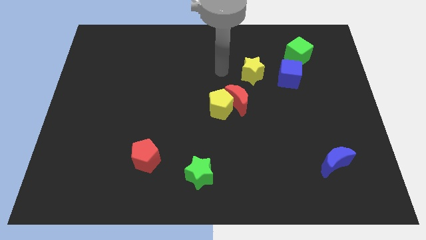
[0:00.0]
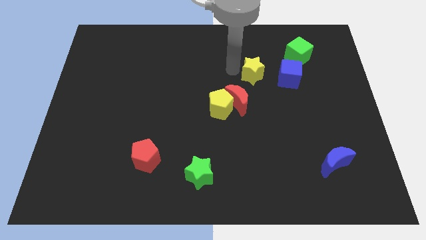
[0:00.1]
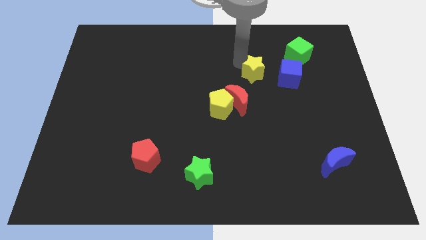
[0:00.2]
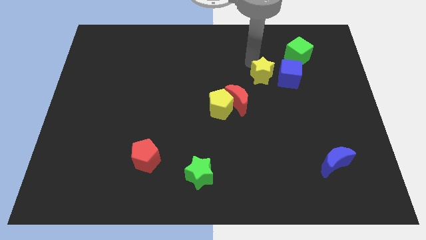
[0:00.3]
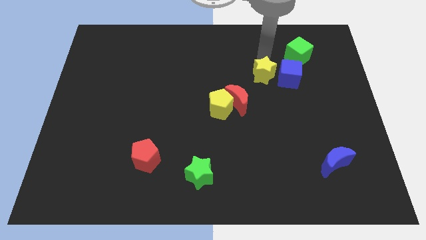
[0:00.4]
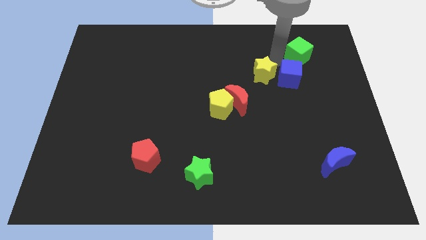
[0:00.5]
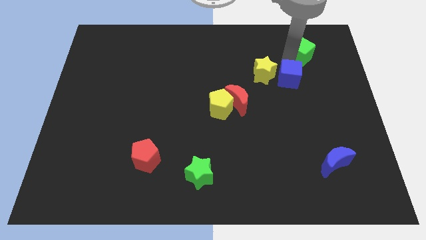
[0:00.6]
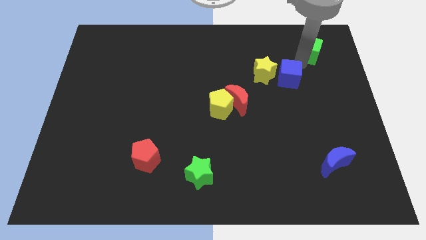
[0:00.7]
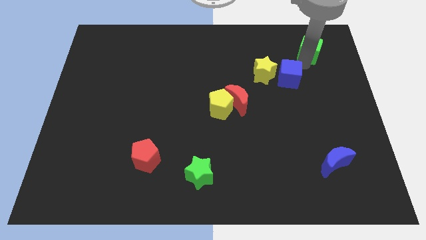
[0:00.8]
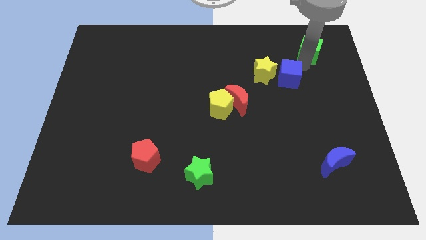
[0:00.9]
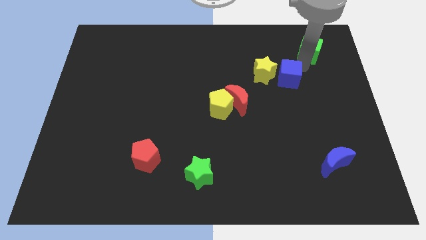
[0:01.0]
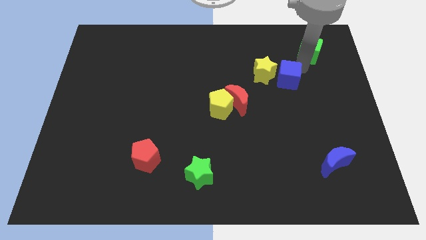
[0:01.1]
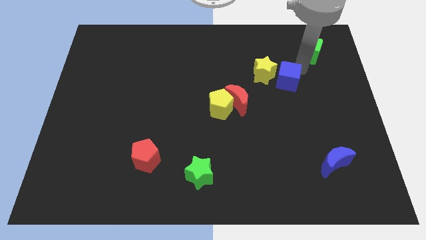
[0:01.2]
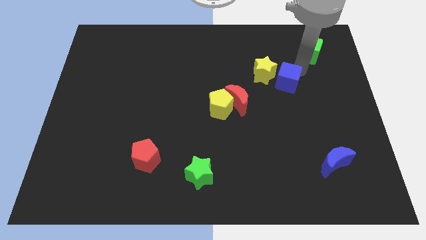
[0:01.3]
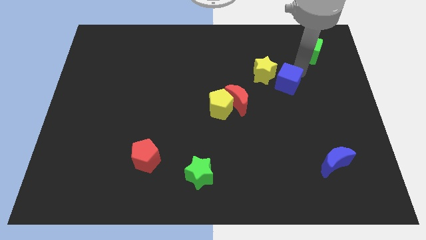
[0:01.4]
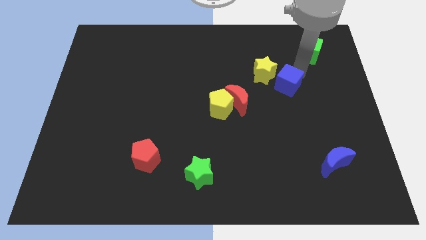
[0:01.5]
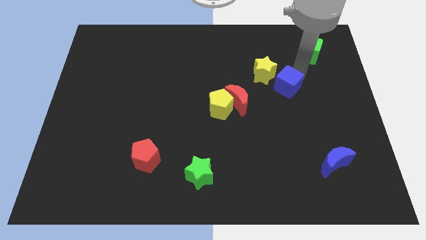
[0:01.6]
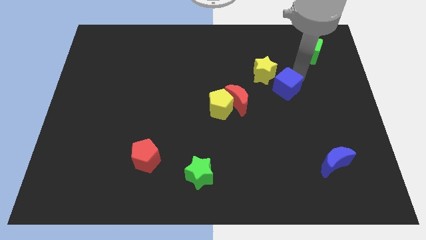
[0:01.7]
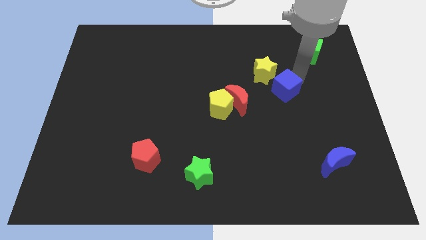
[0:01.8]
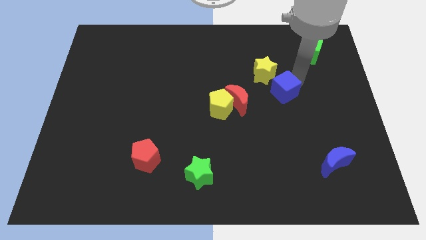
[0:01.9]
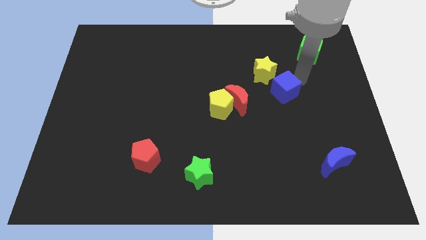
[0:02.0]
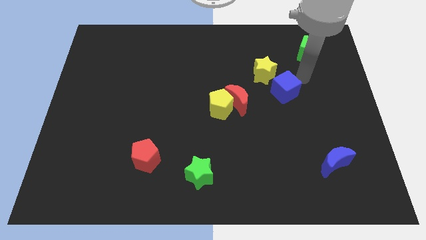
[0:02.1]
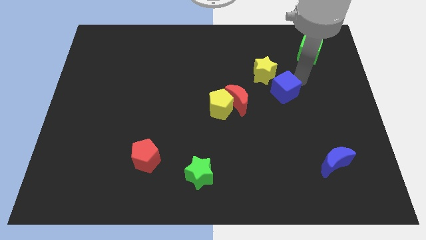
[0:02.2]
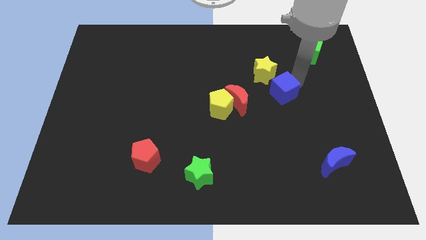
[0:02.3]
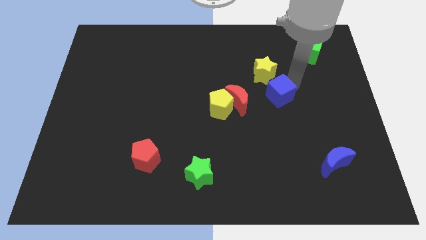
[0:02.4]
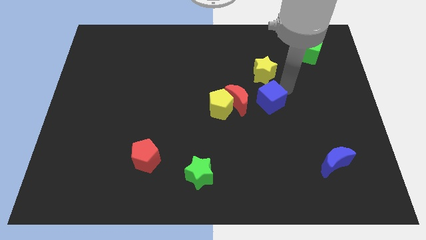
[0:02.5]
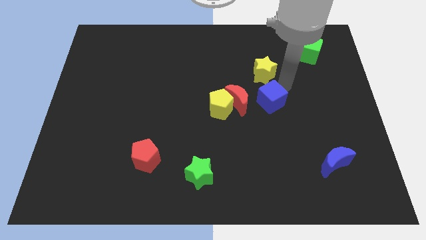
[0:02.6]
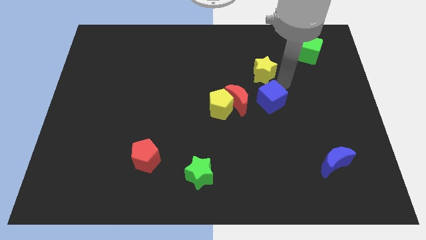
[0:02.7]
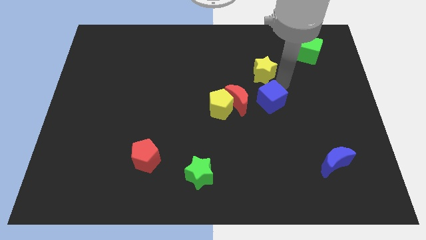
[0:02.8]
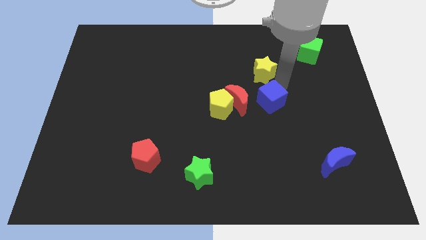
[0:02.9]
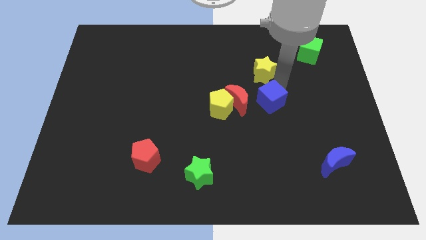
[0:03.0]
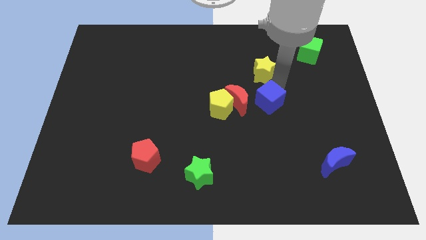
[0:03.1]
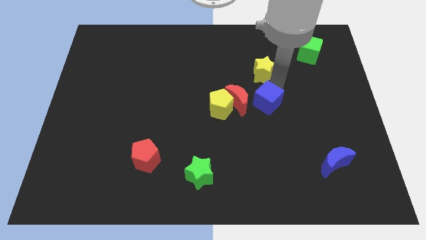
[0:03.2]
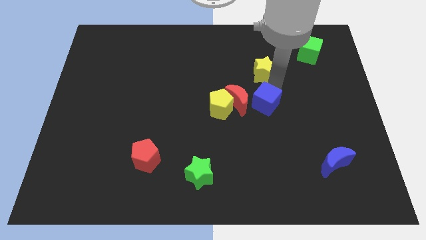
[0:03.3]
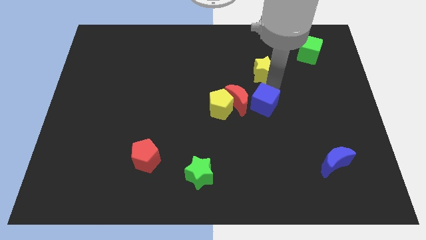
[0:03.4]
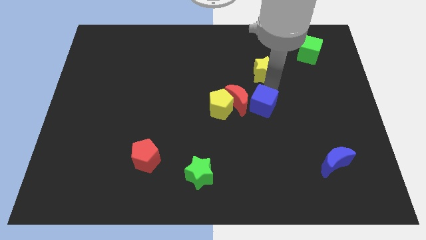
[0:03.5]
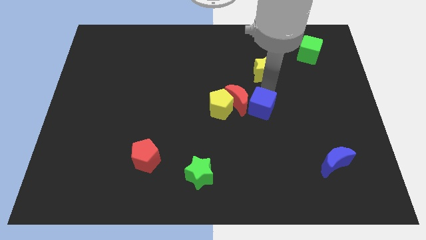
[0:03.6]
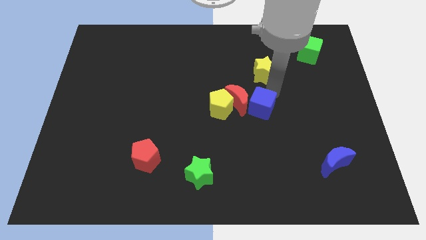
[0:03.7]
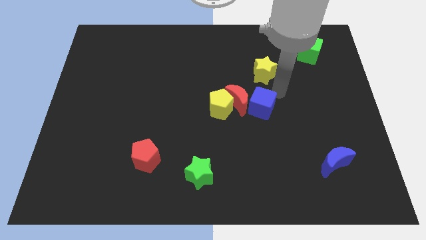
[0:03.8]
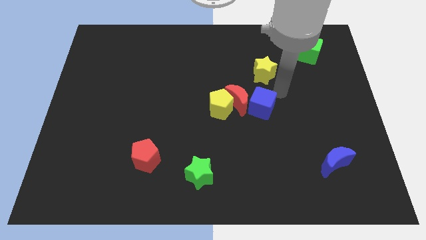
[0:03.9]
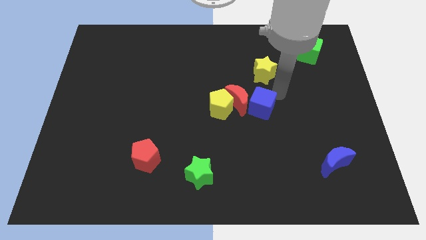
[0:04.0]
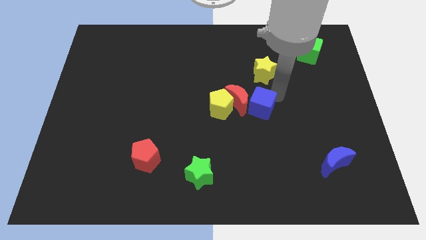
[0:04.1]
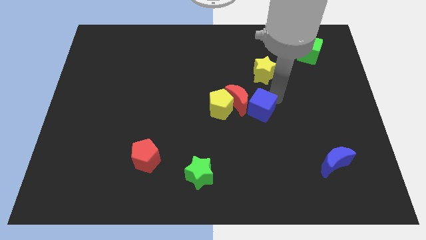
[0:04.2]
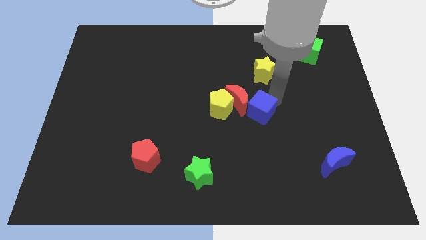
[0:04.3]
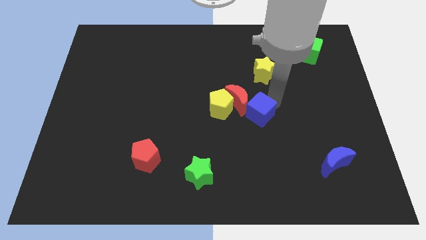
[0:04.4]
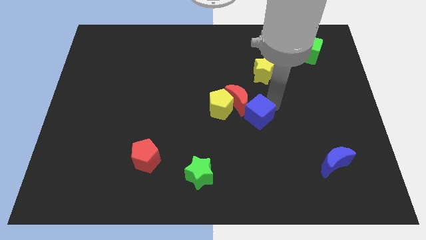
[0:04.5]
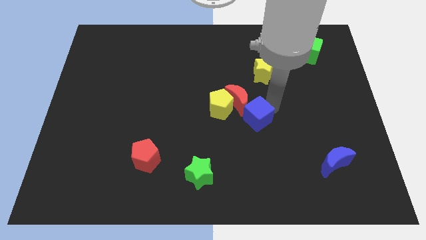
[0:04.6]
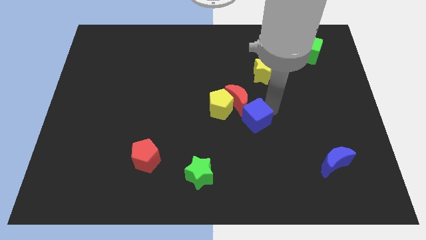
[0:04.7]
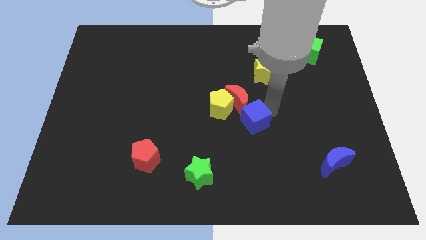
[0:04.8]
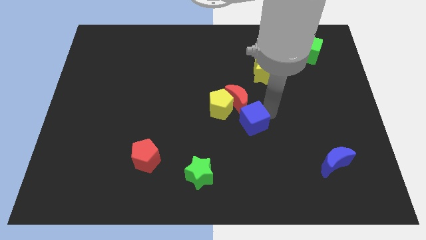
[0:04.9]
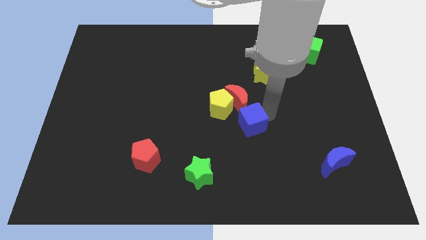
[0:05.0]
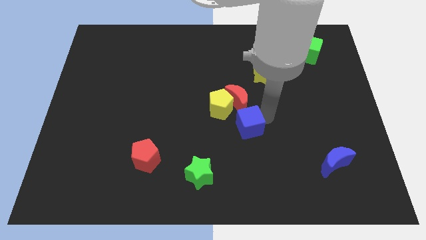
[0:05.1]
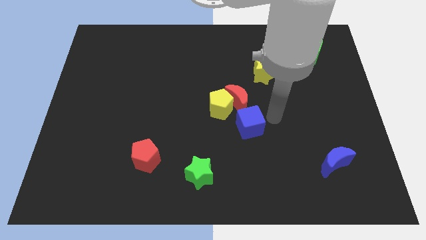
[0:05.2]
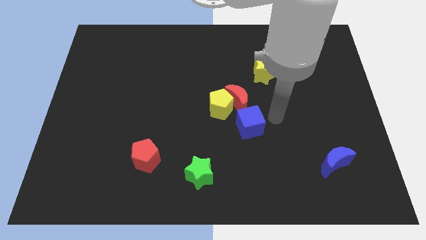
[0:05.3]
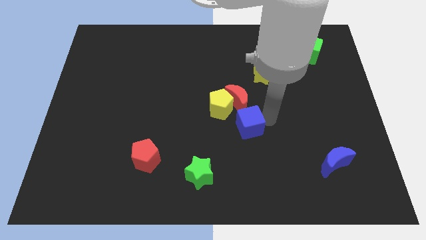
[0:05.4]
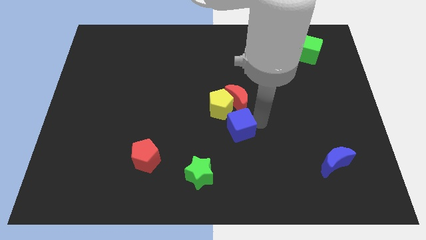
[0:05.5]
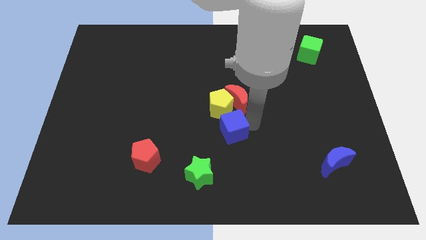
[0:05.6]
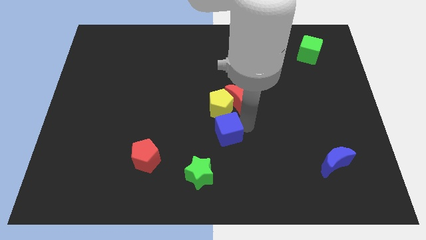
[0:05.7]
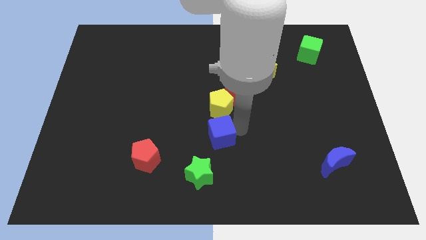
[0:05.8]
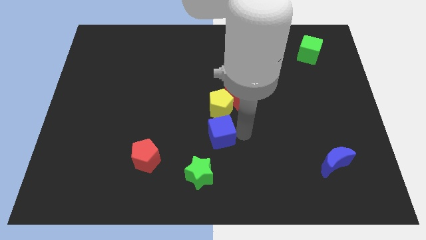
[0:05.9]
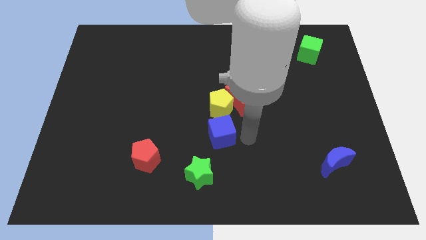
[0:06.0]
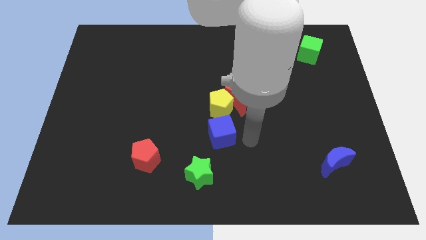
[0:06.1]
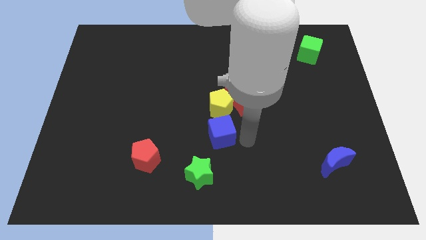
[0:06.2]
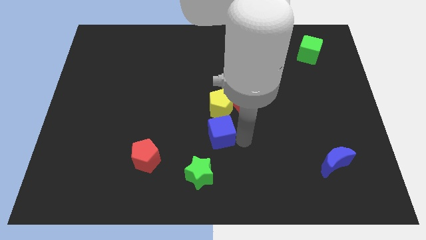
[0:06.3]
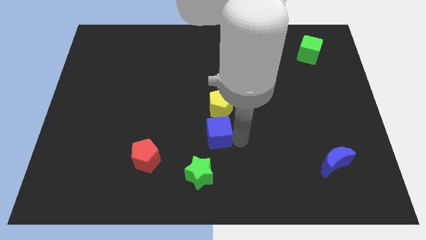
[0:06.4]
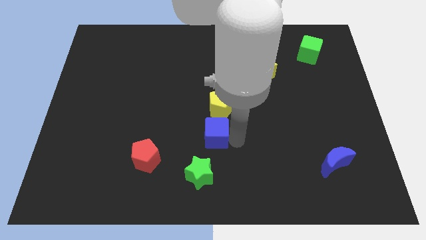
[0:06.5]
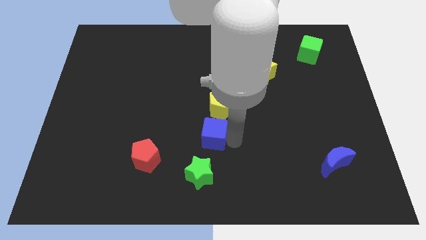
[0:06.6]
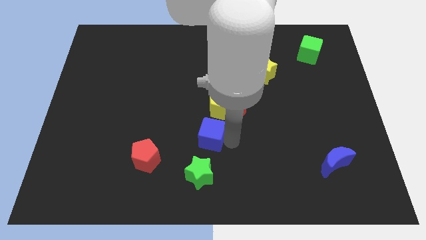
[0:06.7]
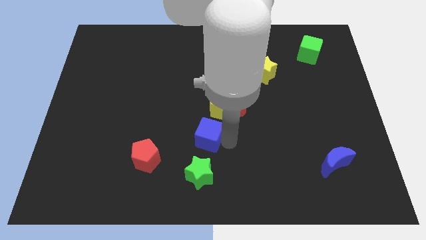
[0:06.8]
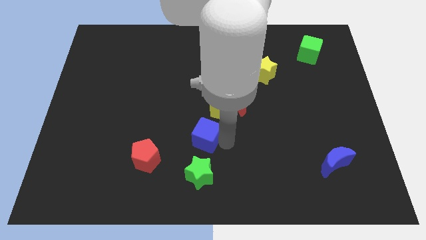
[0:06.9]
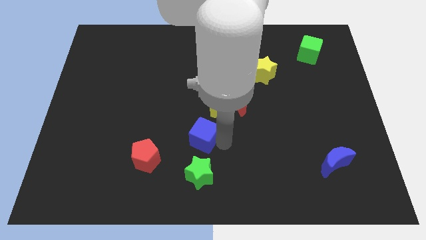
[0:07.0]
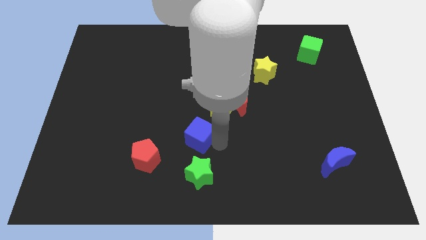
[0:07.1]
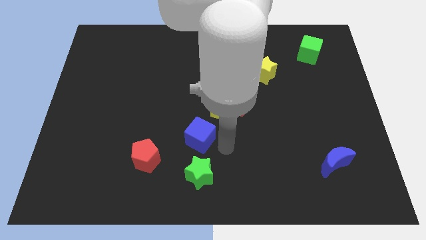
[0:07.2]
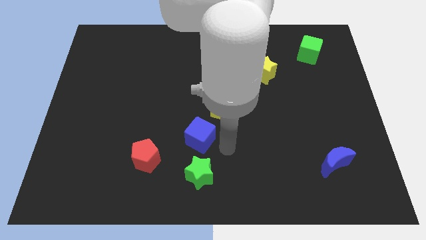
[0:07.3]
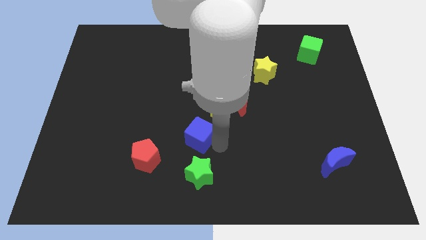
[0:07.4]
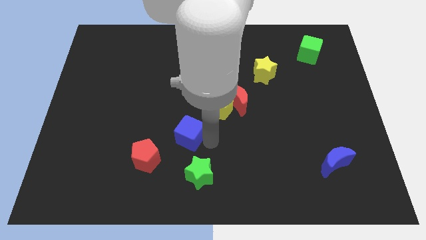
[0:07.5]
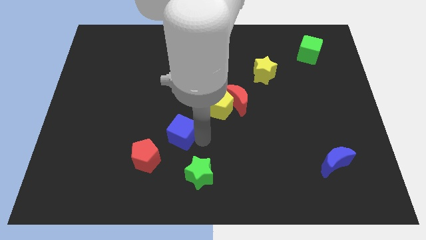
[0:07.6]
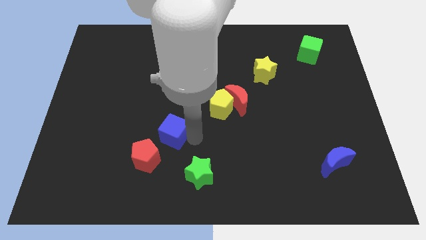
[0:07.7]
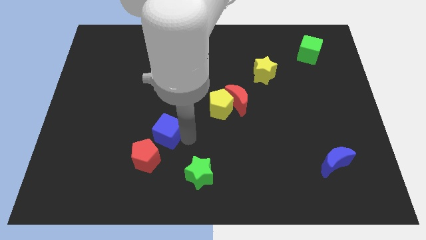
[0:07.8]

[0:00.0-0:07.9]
put the blue cube above the red pentagon

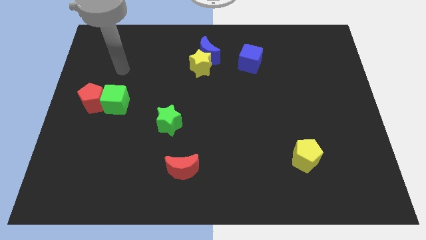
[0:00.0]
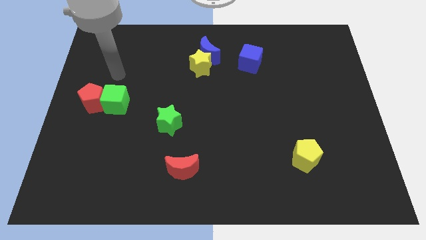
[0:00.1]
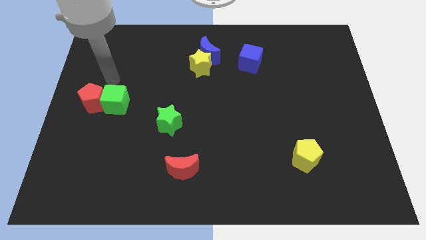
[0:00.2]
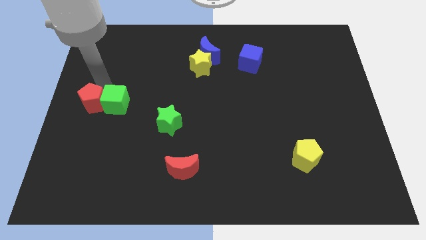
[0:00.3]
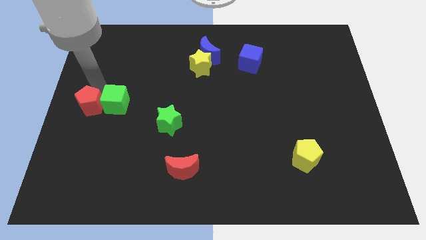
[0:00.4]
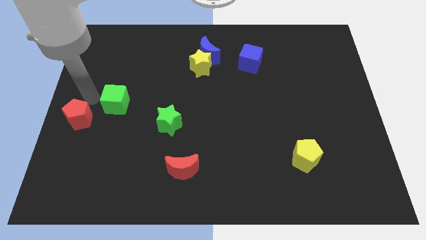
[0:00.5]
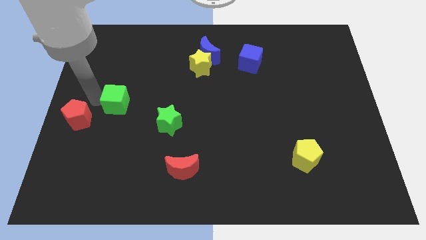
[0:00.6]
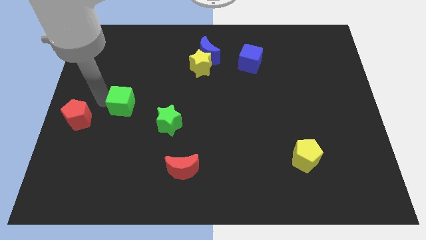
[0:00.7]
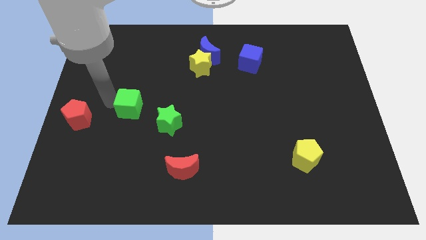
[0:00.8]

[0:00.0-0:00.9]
put the green cube to the top left of the green star

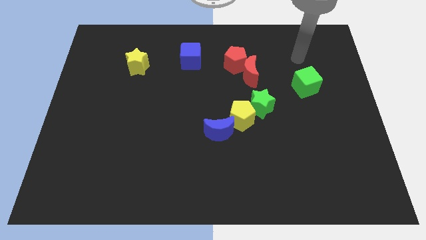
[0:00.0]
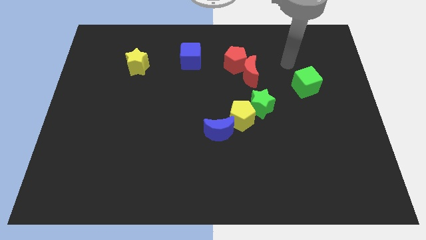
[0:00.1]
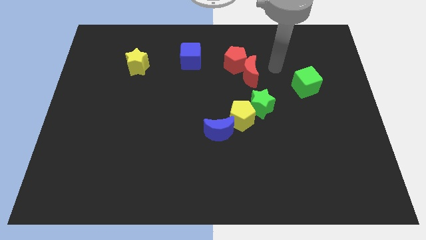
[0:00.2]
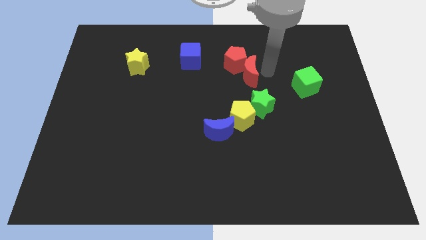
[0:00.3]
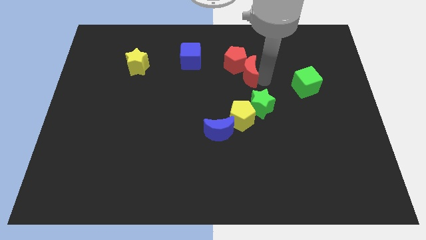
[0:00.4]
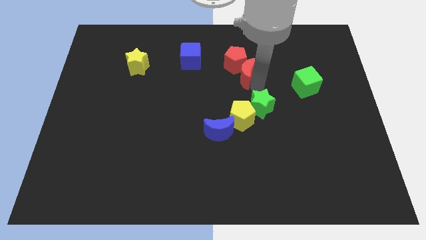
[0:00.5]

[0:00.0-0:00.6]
put the green star to the bottom right of the red moon
